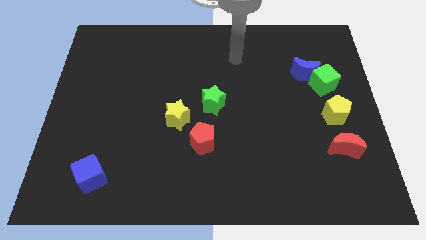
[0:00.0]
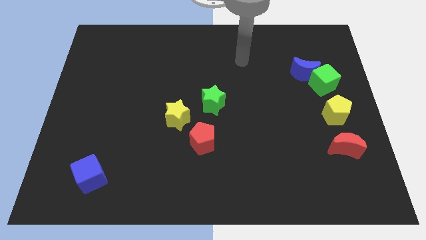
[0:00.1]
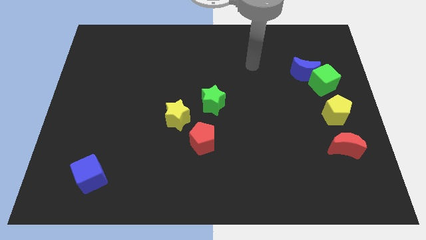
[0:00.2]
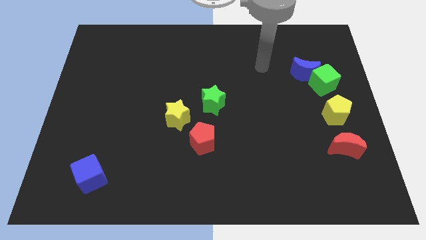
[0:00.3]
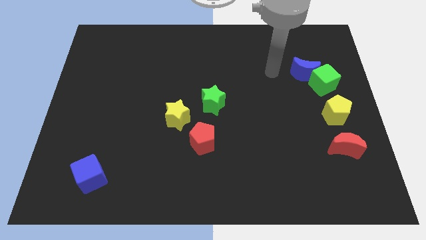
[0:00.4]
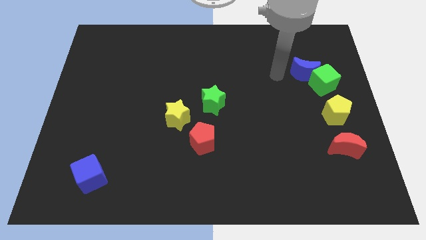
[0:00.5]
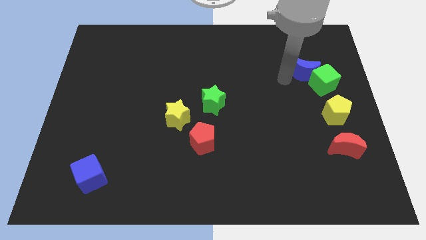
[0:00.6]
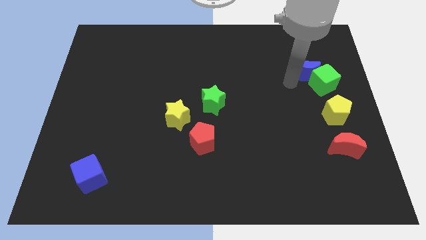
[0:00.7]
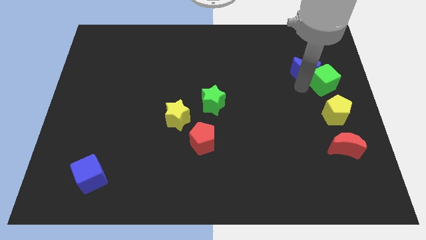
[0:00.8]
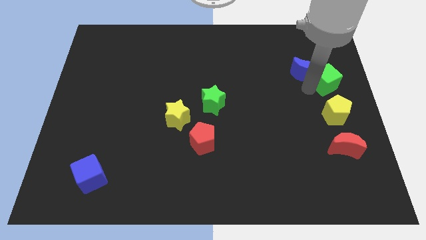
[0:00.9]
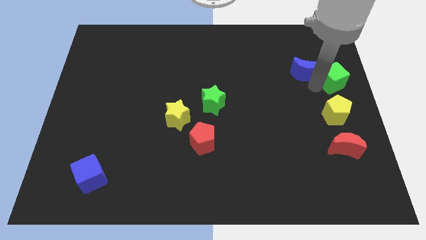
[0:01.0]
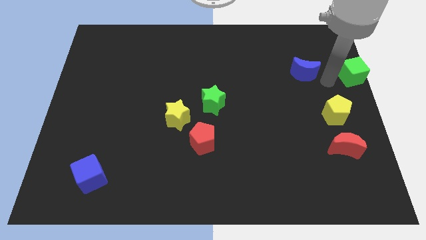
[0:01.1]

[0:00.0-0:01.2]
move the blue moon away from the green cube

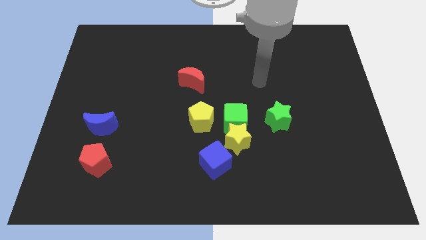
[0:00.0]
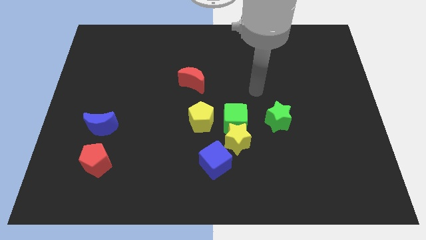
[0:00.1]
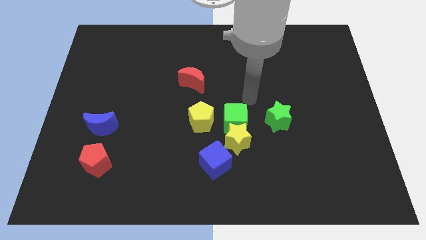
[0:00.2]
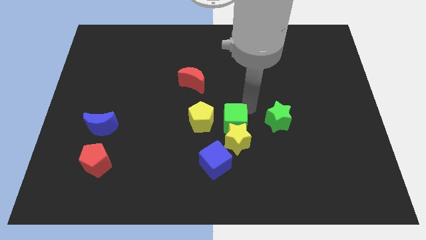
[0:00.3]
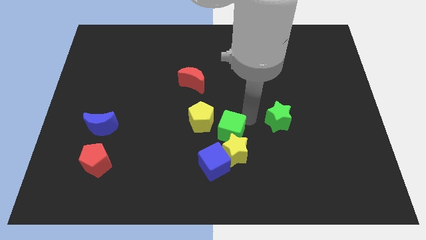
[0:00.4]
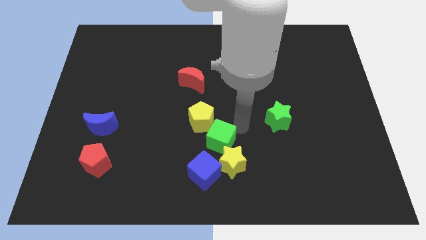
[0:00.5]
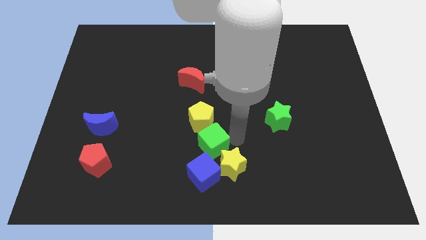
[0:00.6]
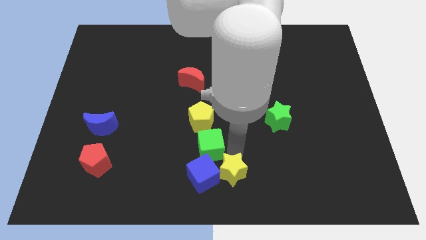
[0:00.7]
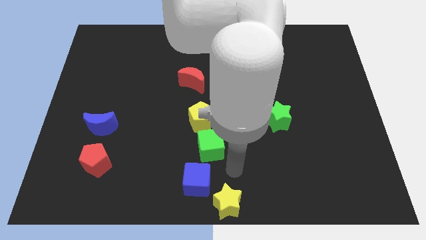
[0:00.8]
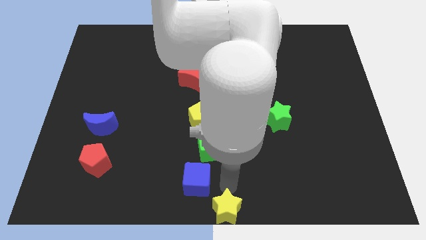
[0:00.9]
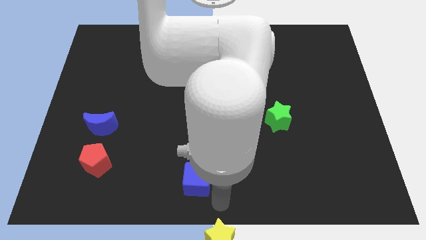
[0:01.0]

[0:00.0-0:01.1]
pull the blue cube apart from the yellow star

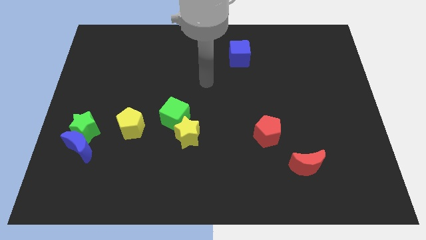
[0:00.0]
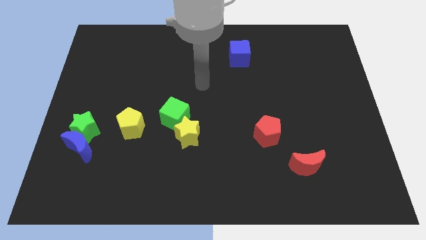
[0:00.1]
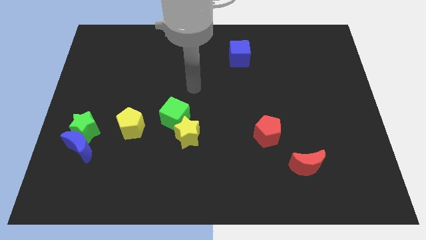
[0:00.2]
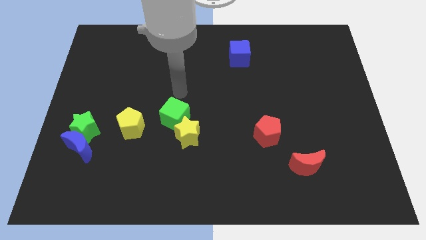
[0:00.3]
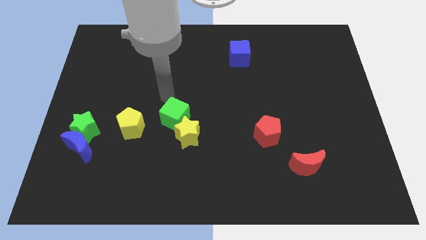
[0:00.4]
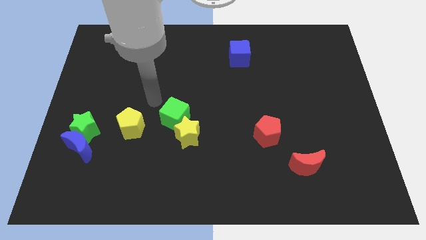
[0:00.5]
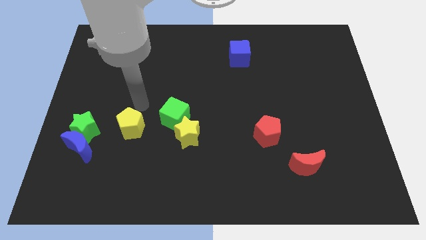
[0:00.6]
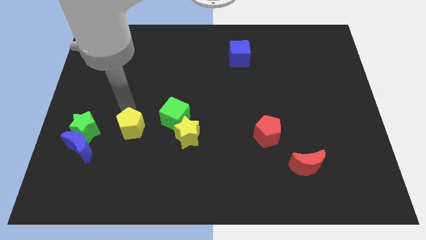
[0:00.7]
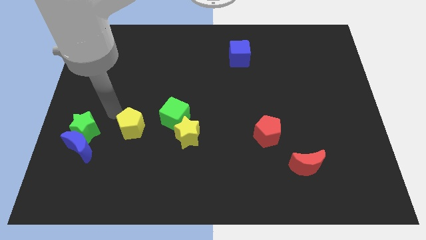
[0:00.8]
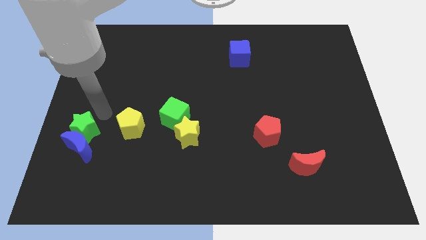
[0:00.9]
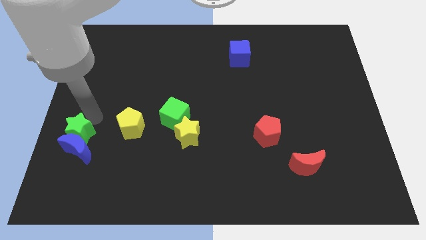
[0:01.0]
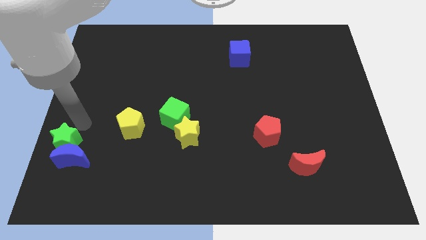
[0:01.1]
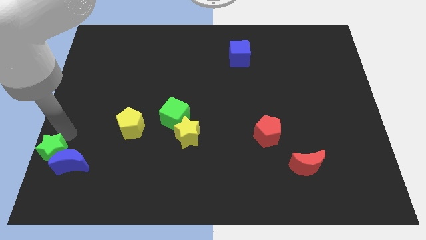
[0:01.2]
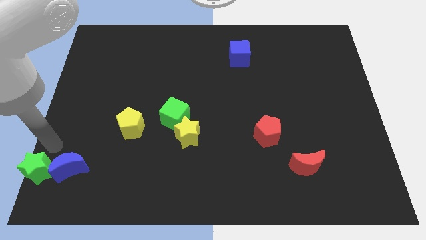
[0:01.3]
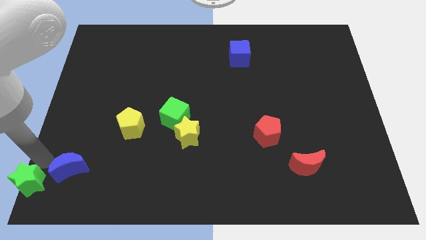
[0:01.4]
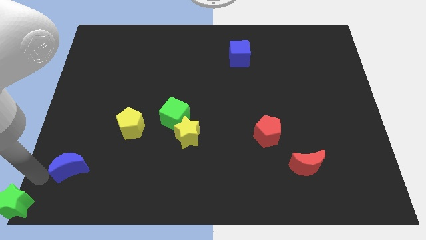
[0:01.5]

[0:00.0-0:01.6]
pull the blue moon apart from the green star

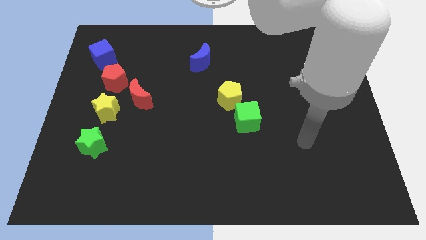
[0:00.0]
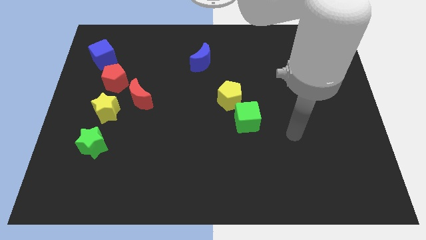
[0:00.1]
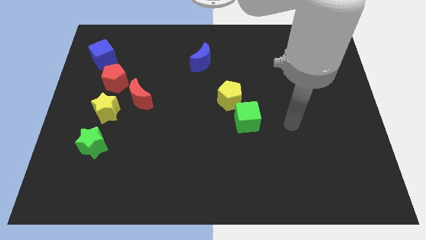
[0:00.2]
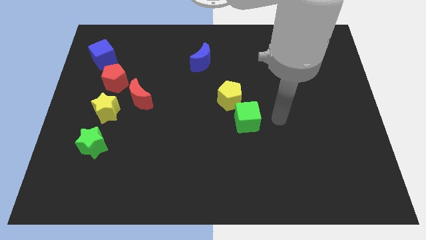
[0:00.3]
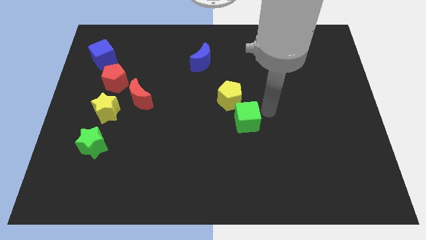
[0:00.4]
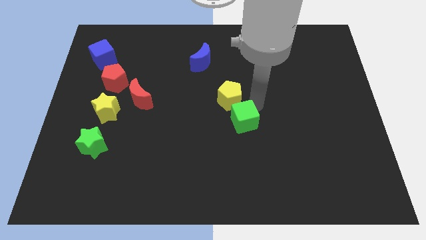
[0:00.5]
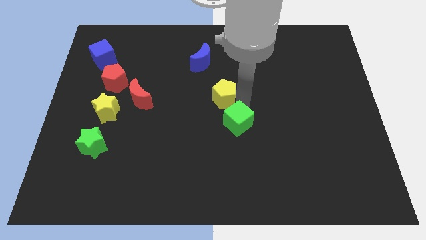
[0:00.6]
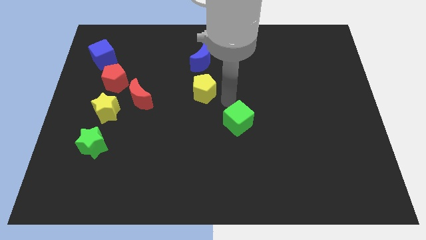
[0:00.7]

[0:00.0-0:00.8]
pull the green cube apart from the yellow pentagon

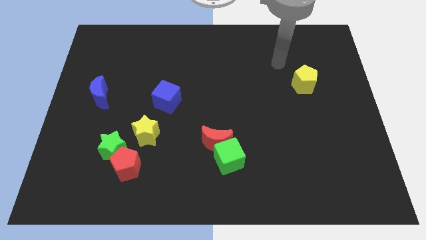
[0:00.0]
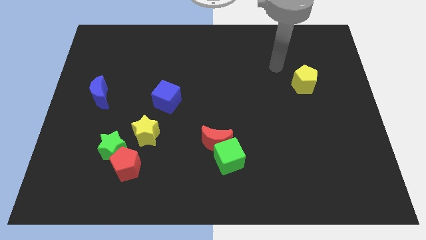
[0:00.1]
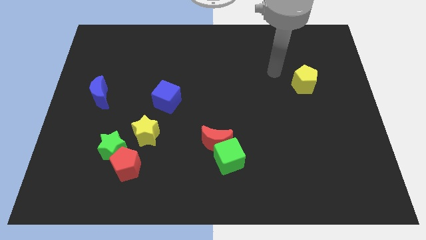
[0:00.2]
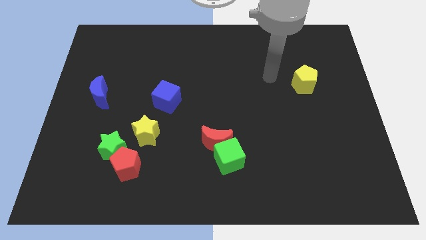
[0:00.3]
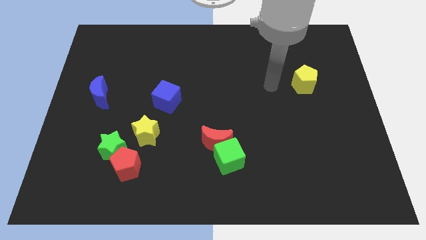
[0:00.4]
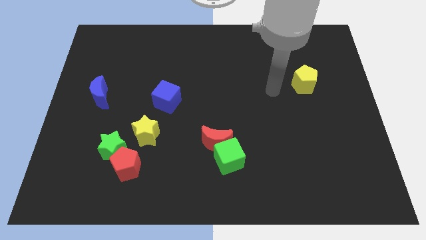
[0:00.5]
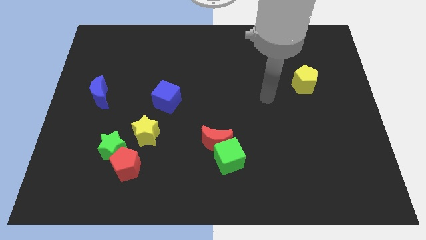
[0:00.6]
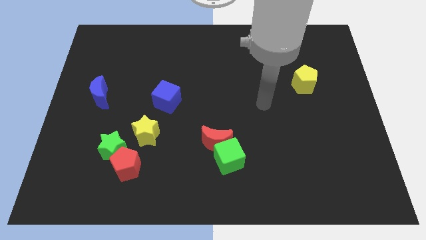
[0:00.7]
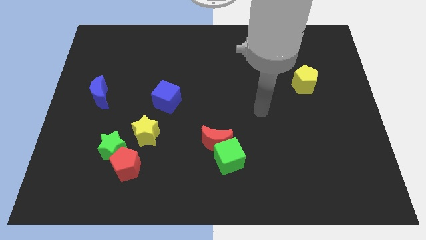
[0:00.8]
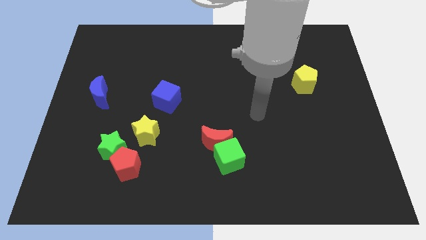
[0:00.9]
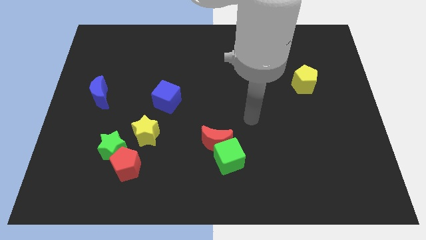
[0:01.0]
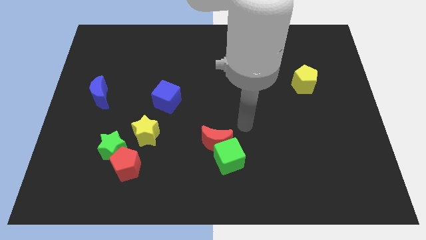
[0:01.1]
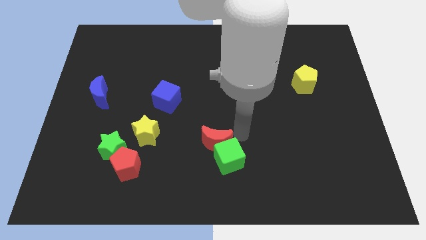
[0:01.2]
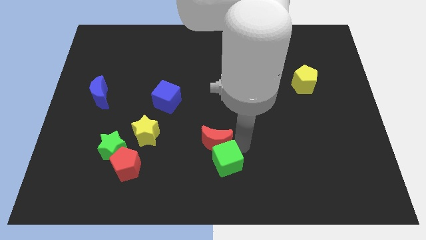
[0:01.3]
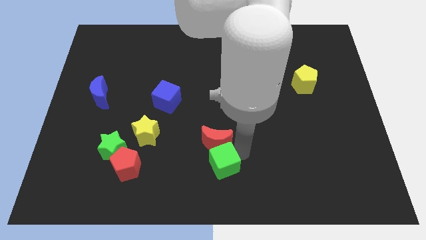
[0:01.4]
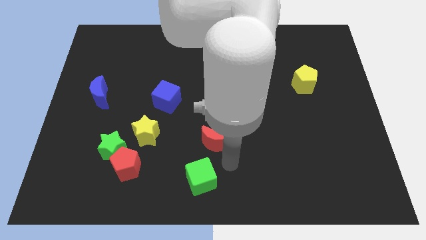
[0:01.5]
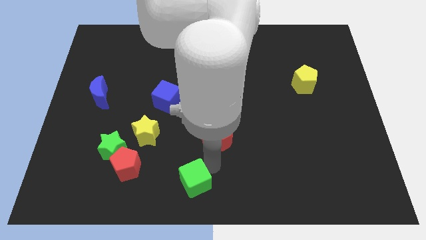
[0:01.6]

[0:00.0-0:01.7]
pull the red moon apart from the green cube

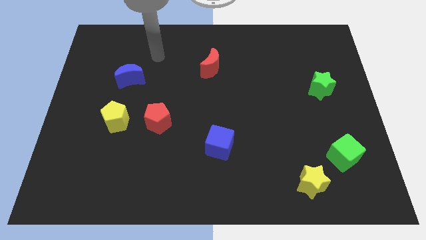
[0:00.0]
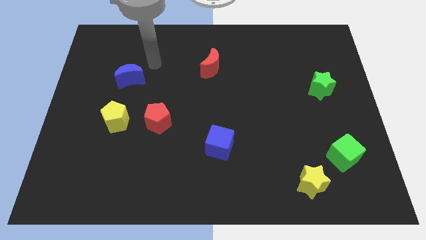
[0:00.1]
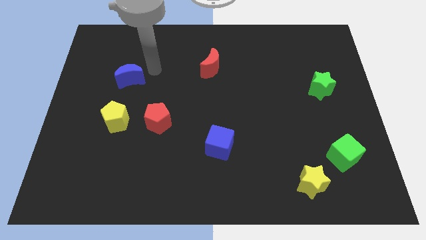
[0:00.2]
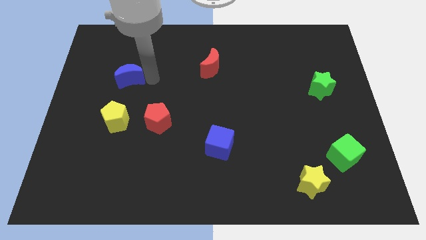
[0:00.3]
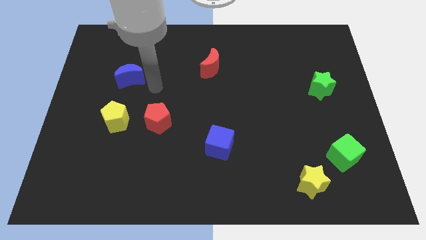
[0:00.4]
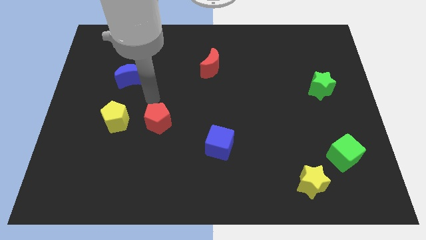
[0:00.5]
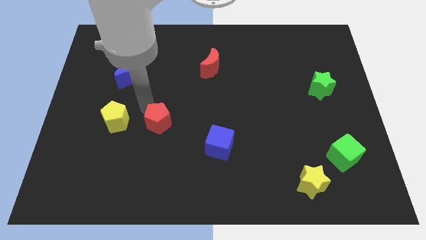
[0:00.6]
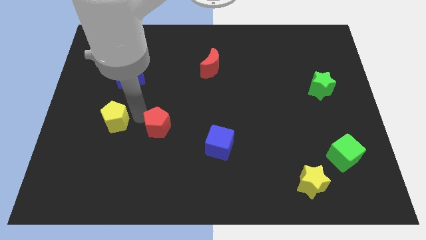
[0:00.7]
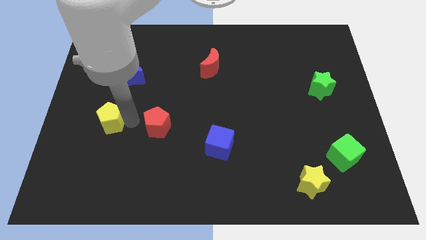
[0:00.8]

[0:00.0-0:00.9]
pull the red pentagon apart from the yellow pentagon

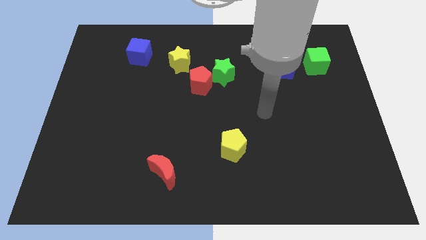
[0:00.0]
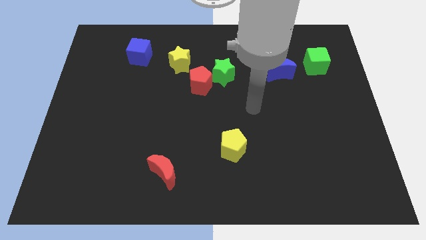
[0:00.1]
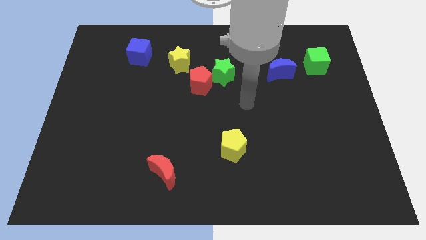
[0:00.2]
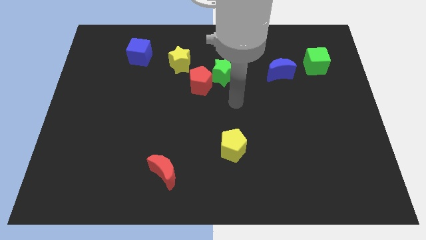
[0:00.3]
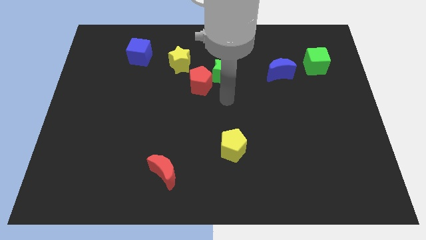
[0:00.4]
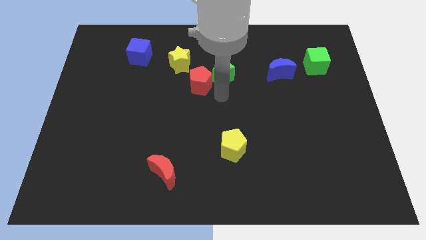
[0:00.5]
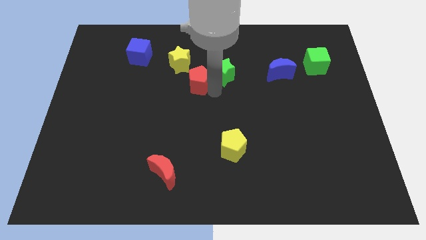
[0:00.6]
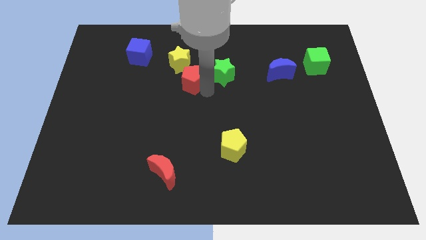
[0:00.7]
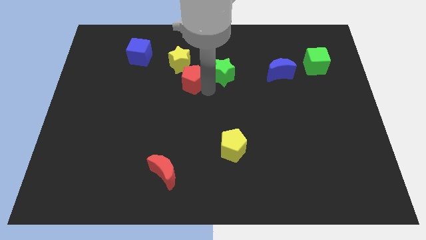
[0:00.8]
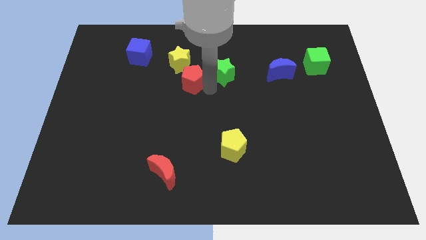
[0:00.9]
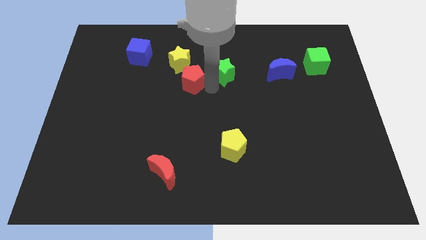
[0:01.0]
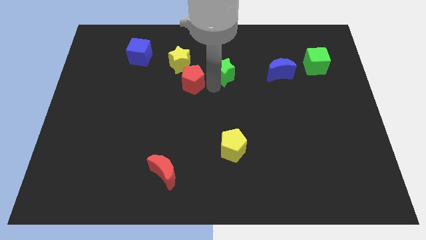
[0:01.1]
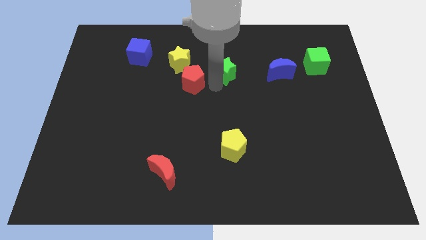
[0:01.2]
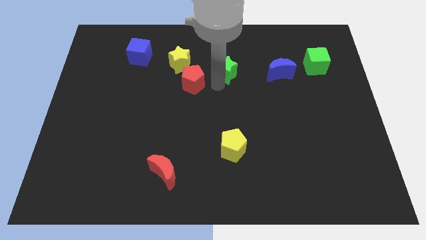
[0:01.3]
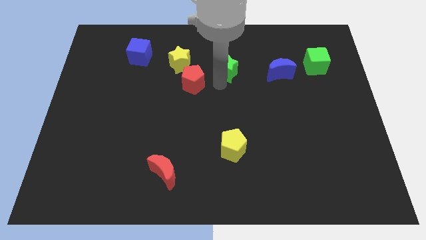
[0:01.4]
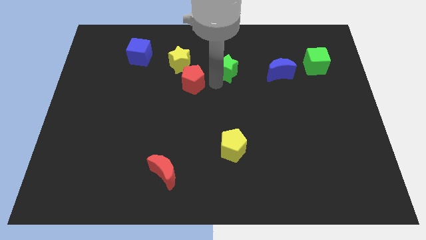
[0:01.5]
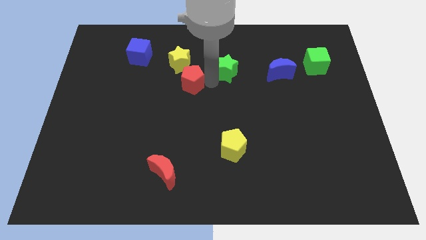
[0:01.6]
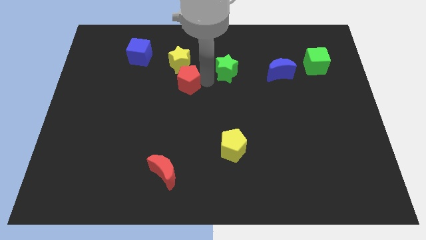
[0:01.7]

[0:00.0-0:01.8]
pull the green star apart from the red pentagon

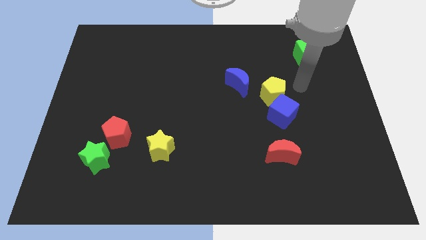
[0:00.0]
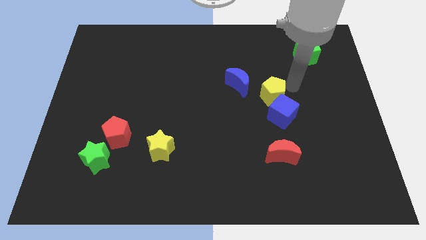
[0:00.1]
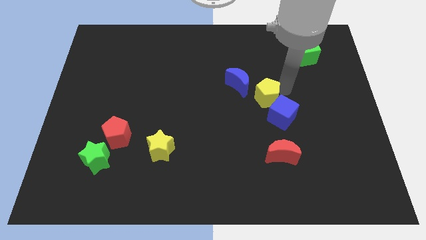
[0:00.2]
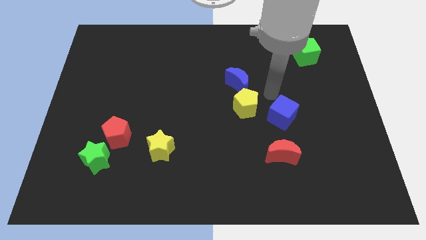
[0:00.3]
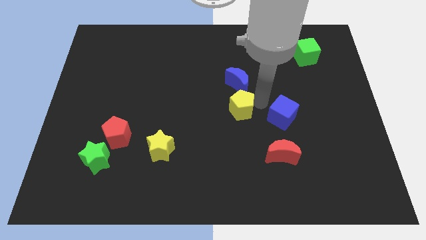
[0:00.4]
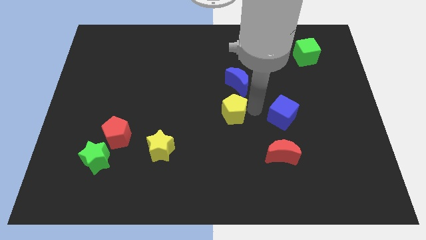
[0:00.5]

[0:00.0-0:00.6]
pull the blue cube apart from the yellow pentagon
